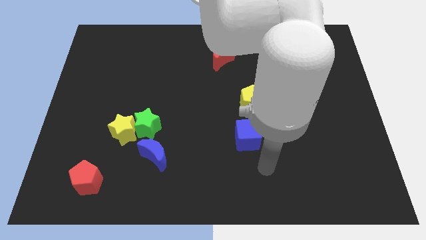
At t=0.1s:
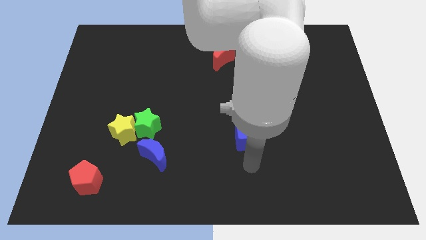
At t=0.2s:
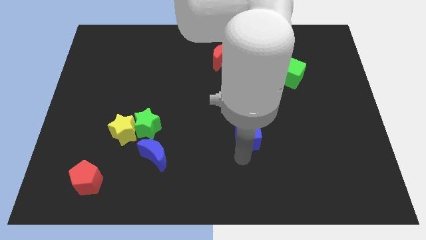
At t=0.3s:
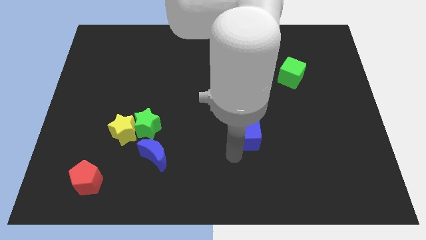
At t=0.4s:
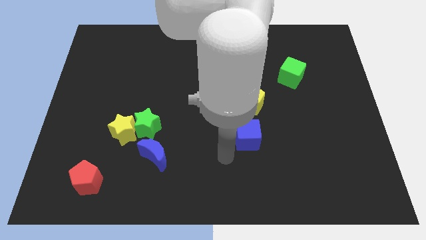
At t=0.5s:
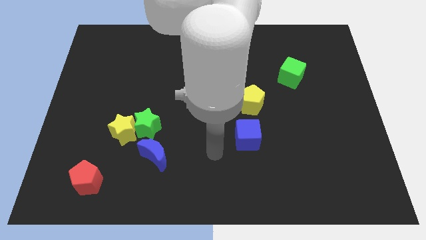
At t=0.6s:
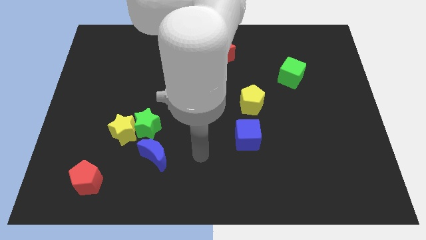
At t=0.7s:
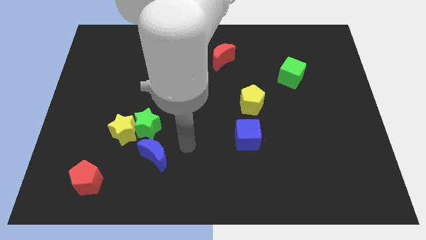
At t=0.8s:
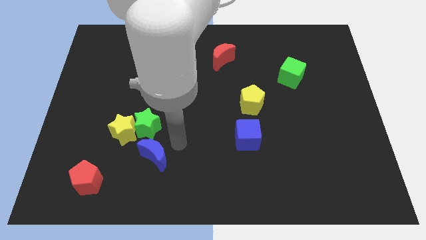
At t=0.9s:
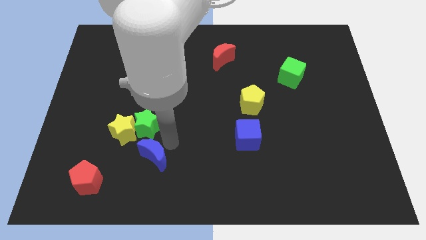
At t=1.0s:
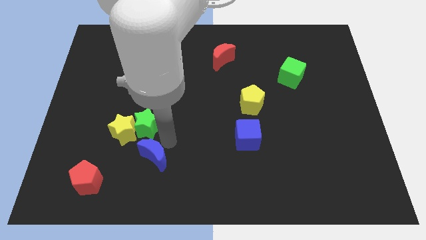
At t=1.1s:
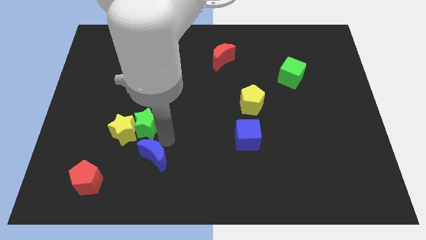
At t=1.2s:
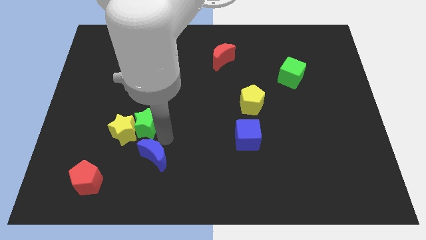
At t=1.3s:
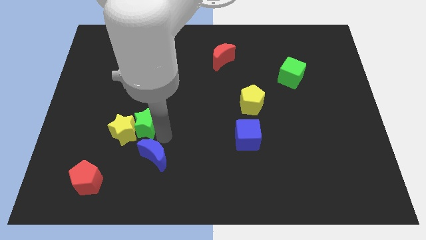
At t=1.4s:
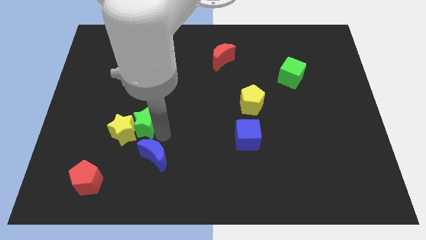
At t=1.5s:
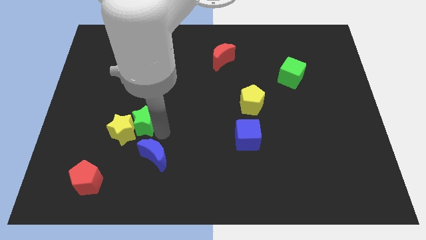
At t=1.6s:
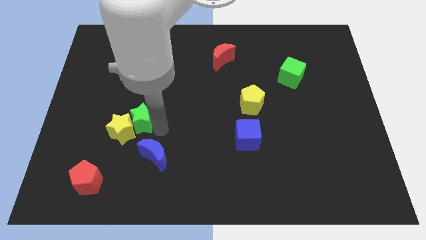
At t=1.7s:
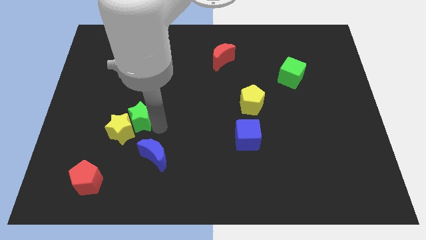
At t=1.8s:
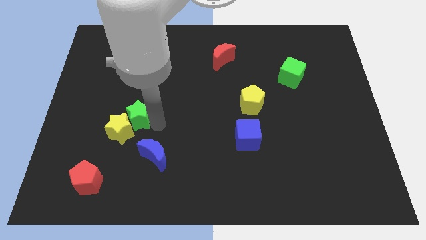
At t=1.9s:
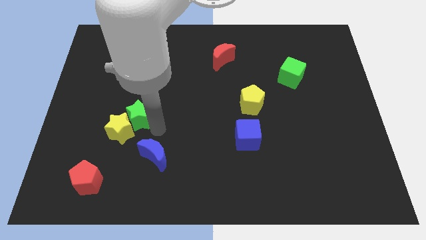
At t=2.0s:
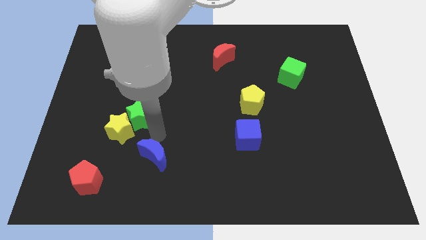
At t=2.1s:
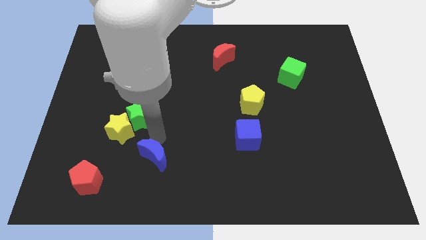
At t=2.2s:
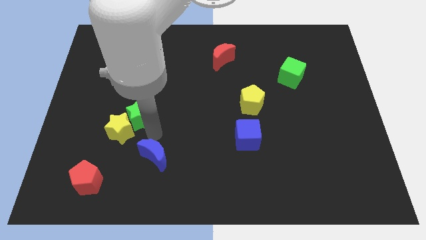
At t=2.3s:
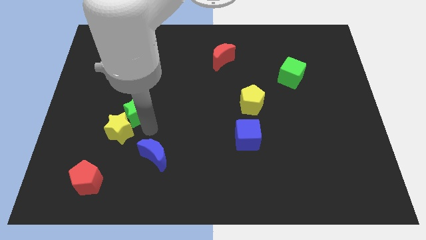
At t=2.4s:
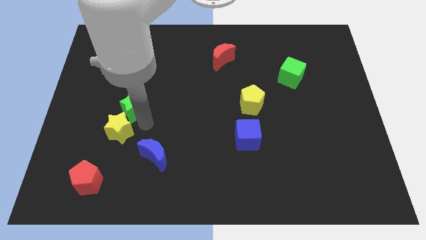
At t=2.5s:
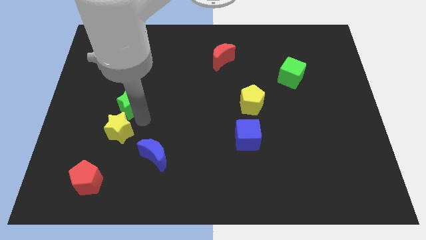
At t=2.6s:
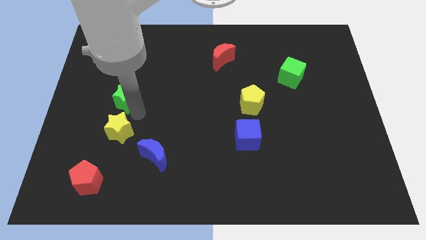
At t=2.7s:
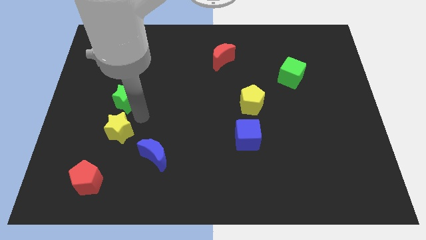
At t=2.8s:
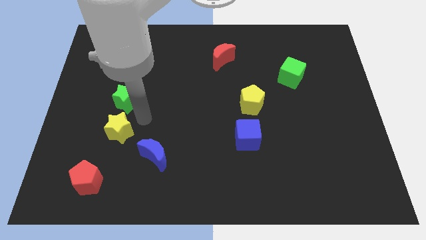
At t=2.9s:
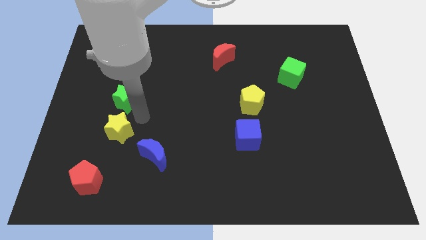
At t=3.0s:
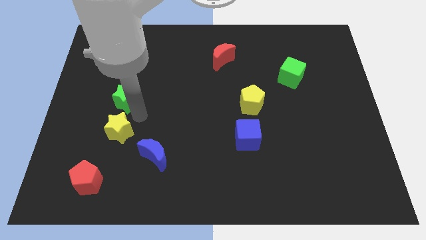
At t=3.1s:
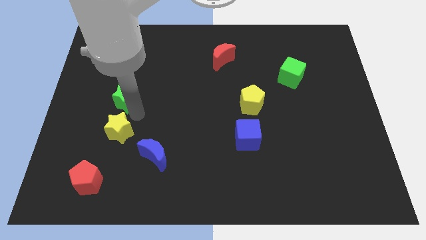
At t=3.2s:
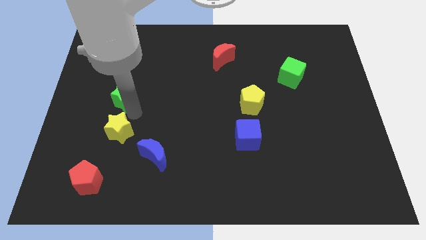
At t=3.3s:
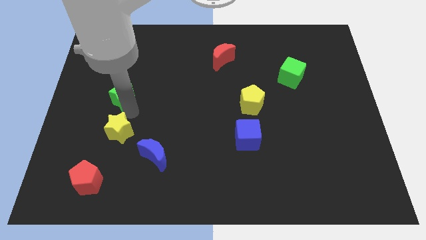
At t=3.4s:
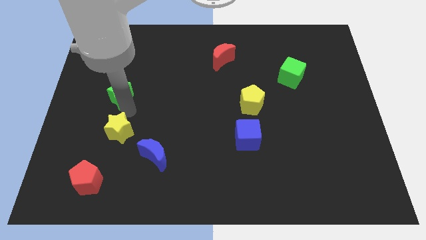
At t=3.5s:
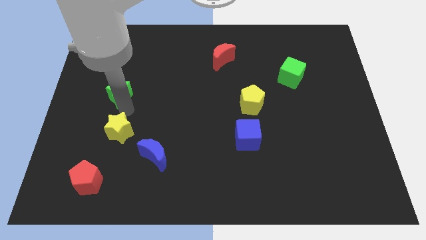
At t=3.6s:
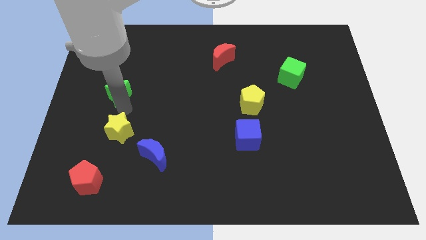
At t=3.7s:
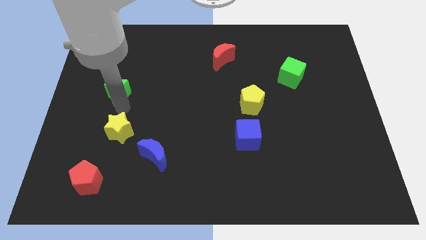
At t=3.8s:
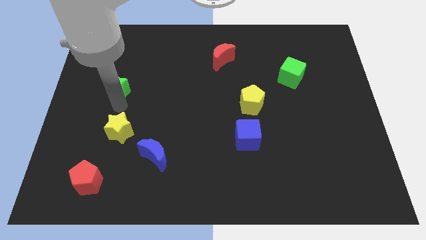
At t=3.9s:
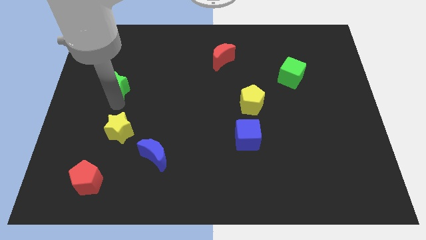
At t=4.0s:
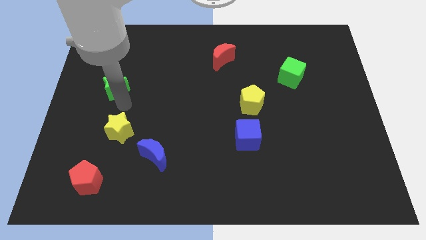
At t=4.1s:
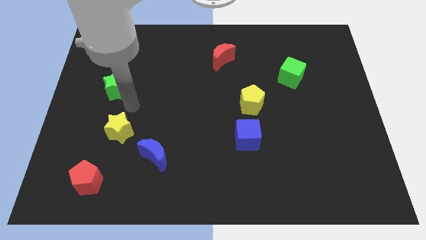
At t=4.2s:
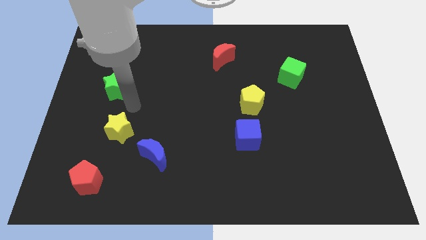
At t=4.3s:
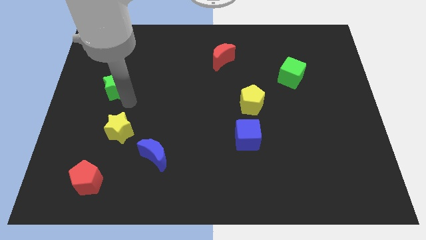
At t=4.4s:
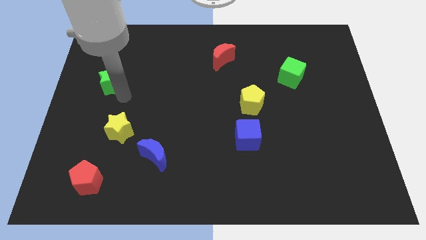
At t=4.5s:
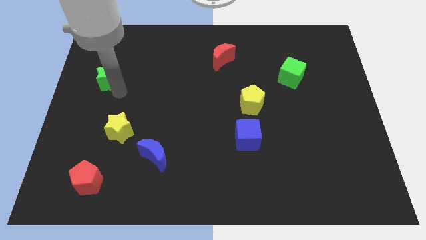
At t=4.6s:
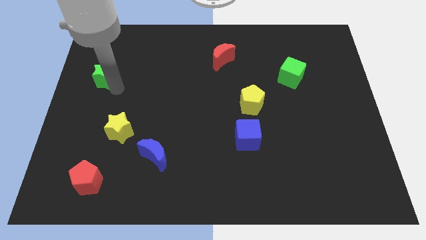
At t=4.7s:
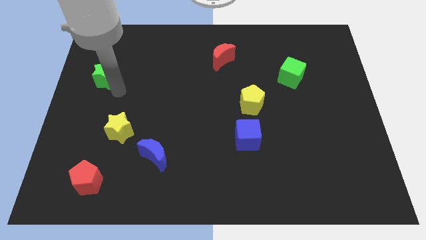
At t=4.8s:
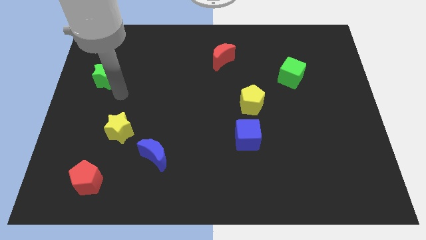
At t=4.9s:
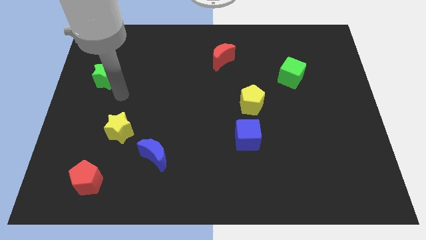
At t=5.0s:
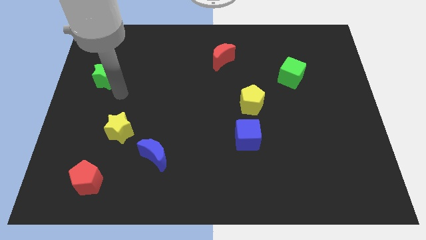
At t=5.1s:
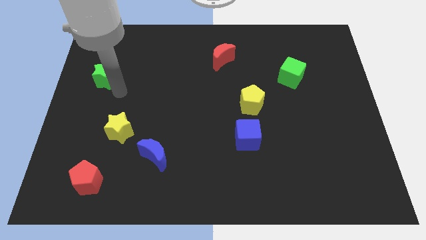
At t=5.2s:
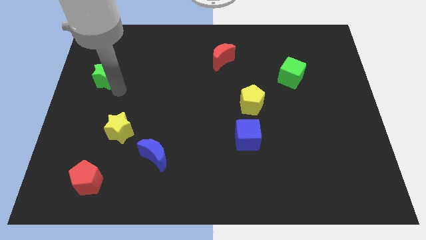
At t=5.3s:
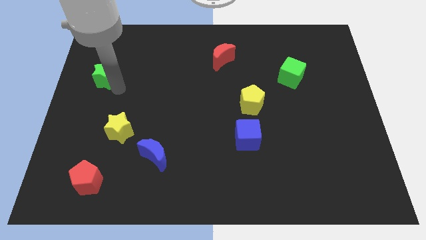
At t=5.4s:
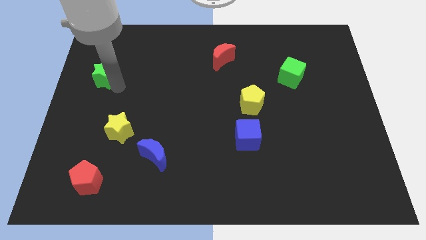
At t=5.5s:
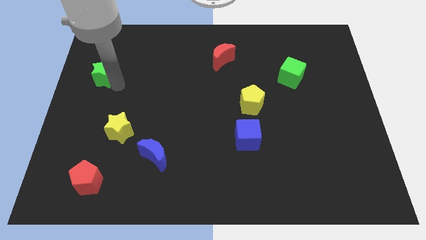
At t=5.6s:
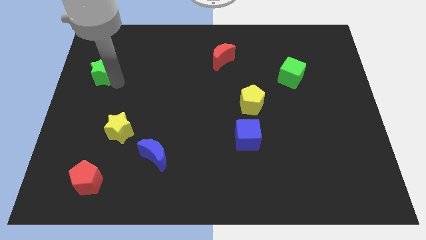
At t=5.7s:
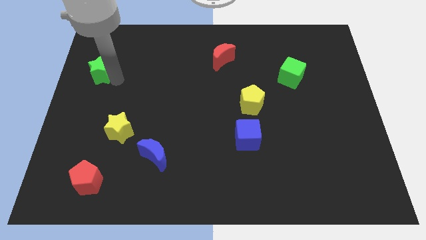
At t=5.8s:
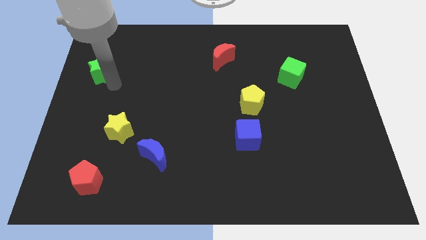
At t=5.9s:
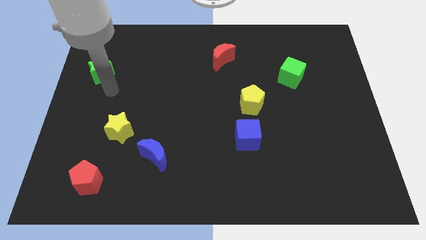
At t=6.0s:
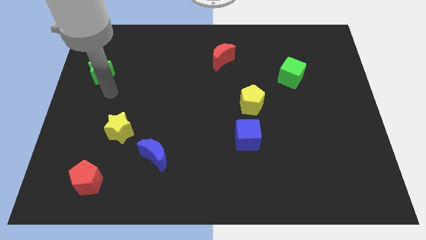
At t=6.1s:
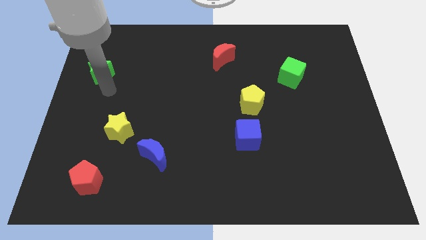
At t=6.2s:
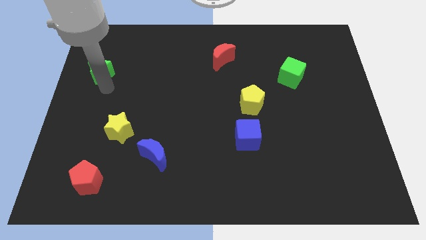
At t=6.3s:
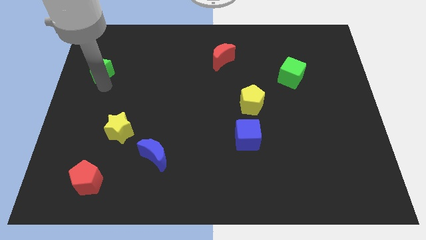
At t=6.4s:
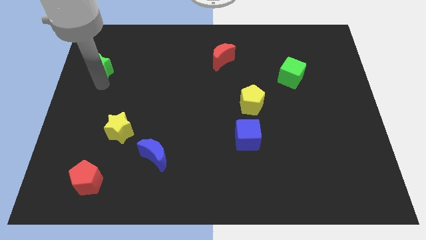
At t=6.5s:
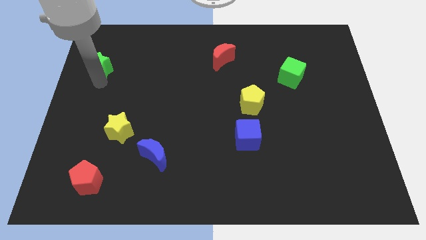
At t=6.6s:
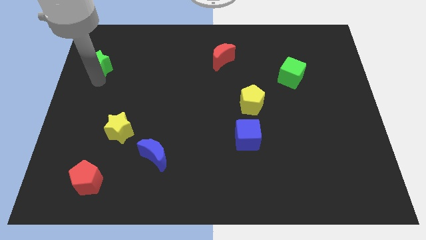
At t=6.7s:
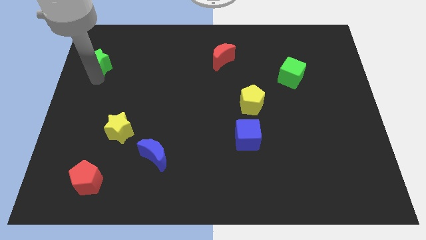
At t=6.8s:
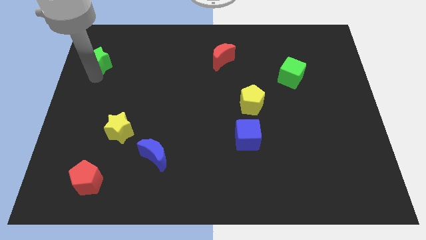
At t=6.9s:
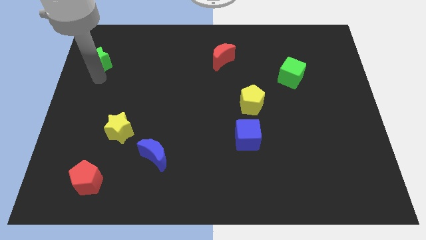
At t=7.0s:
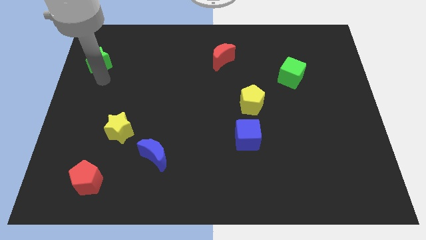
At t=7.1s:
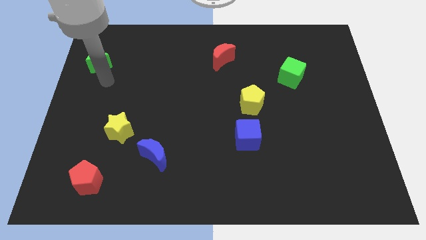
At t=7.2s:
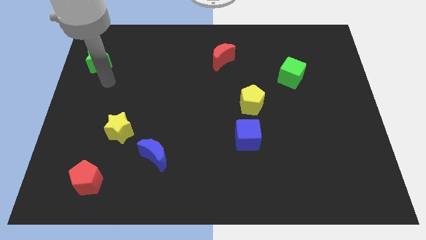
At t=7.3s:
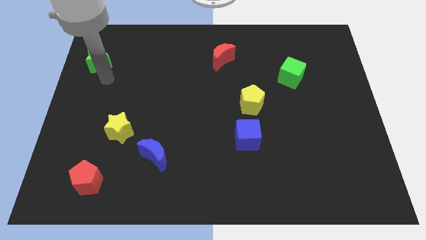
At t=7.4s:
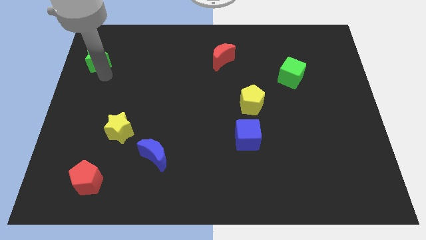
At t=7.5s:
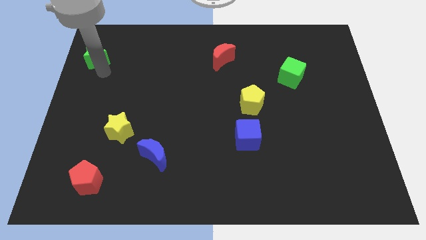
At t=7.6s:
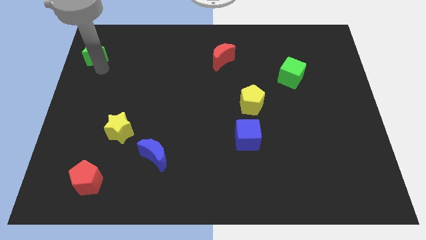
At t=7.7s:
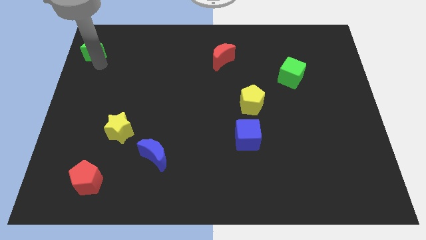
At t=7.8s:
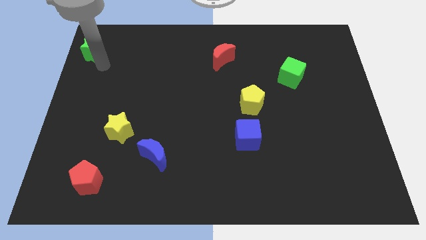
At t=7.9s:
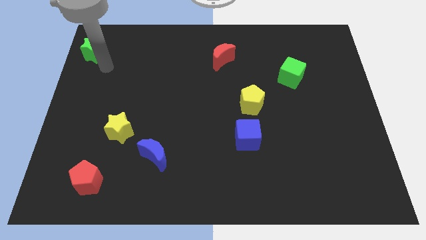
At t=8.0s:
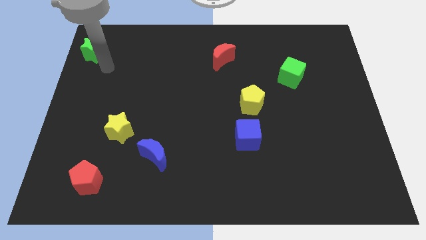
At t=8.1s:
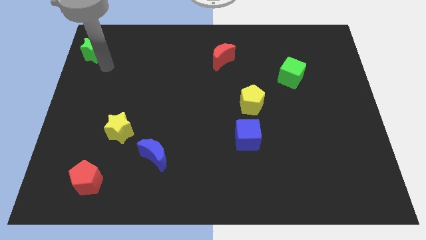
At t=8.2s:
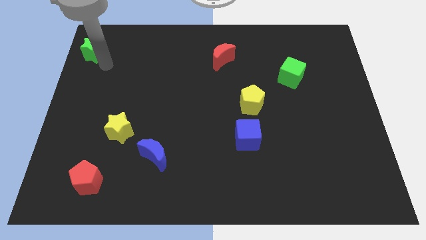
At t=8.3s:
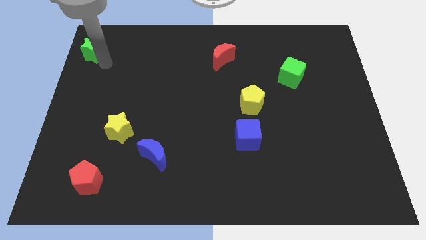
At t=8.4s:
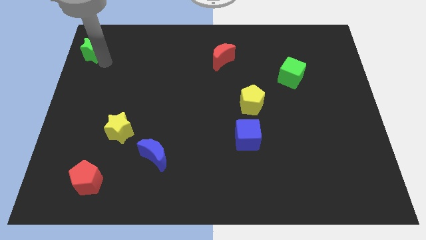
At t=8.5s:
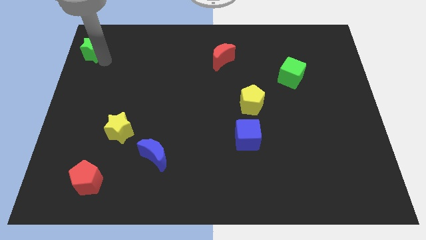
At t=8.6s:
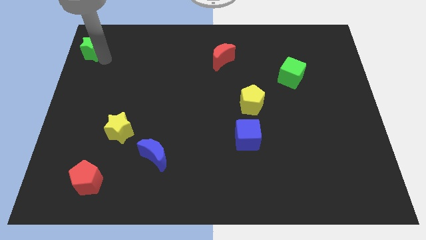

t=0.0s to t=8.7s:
push the green star to the top left corner
